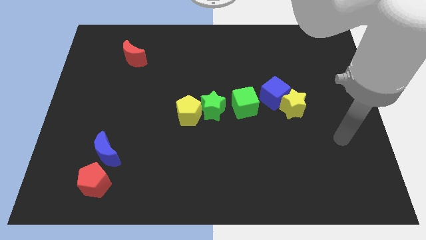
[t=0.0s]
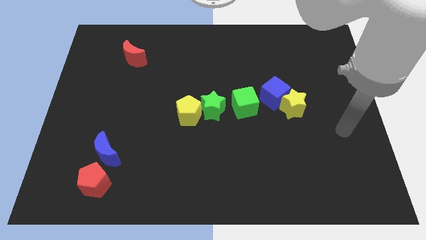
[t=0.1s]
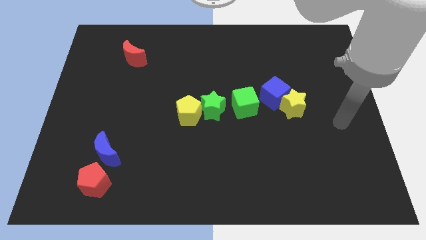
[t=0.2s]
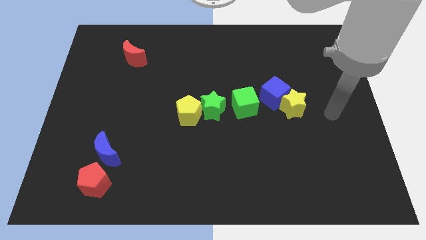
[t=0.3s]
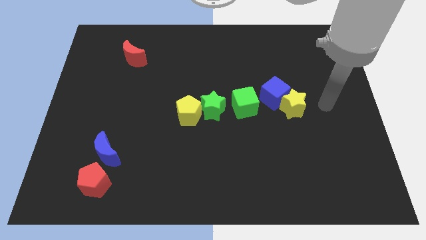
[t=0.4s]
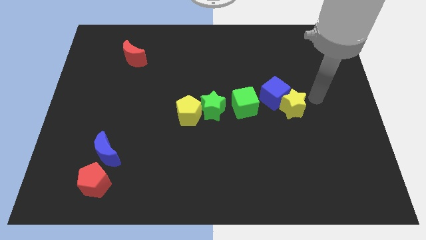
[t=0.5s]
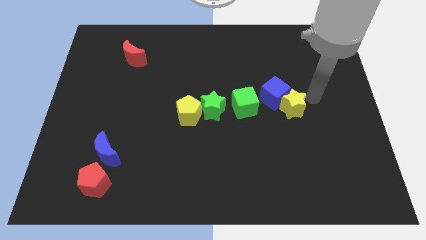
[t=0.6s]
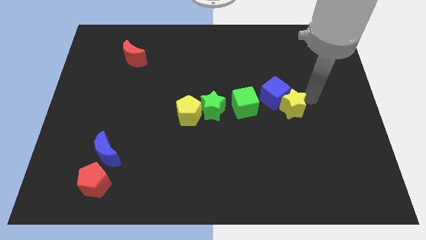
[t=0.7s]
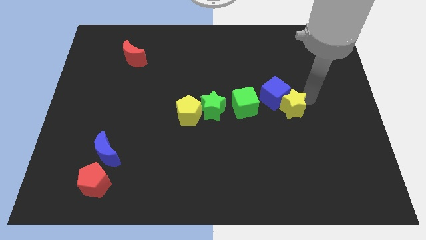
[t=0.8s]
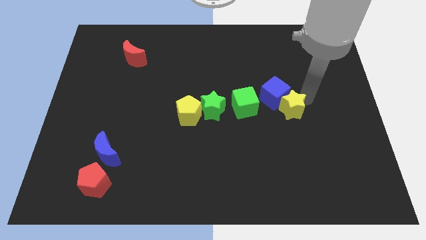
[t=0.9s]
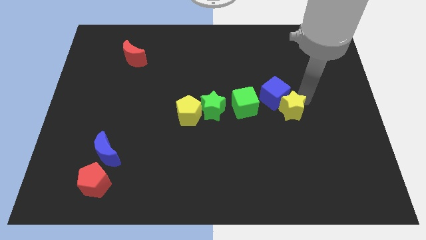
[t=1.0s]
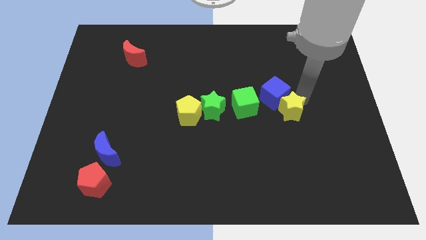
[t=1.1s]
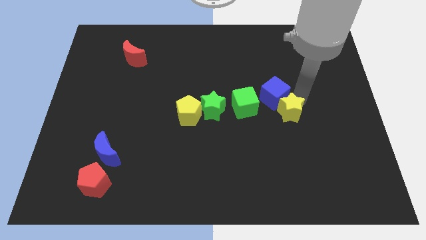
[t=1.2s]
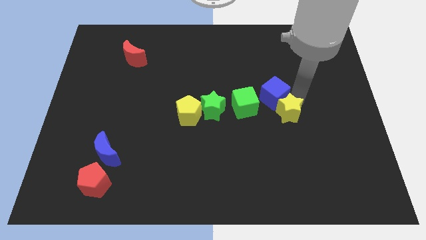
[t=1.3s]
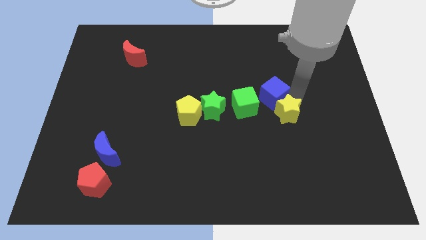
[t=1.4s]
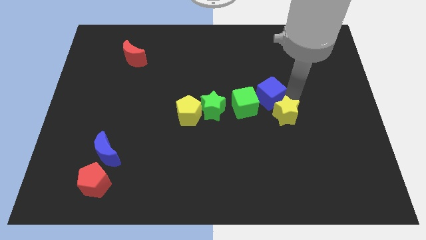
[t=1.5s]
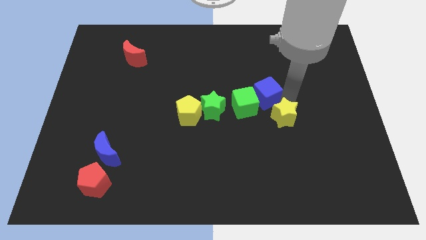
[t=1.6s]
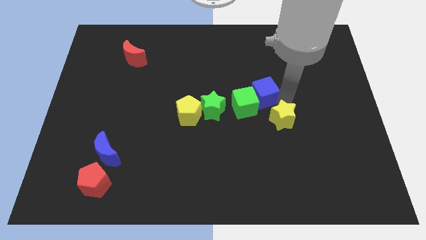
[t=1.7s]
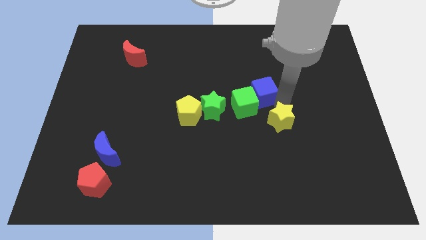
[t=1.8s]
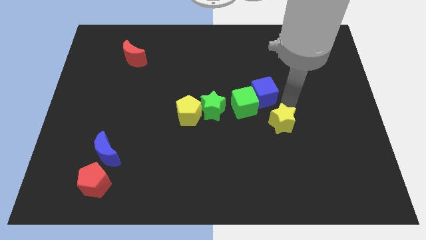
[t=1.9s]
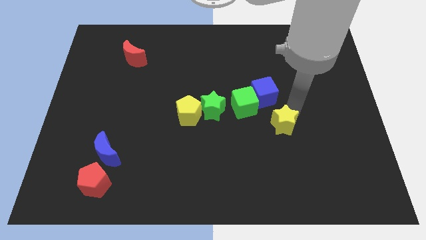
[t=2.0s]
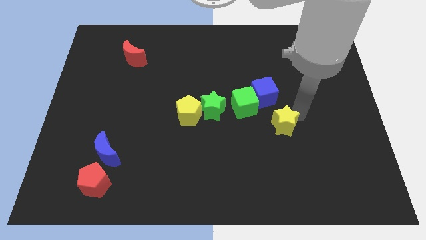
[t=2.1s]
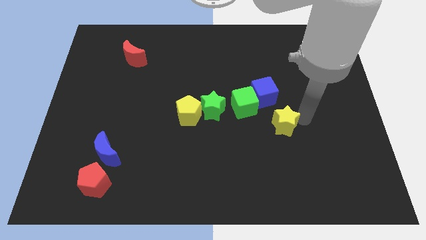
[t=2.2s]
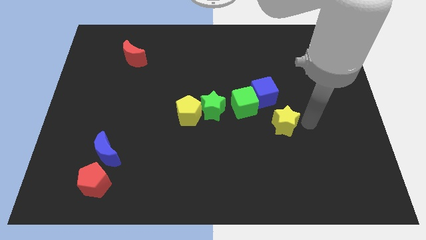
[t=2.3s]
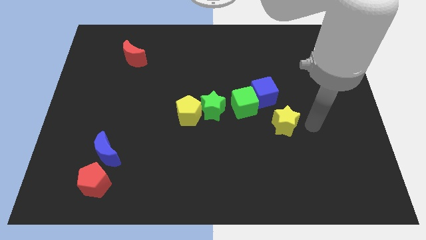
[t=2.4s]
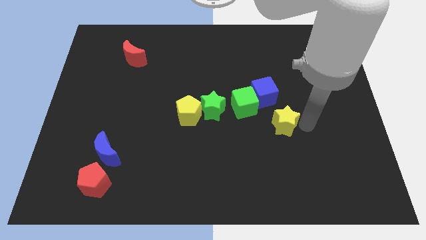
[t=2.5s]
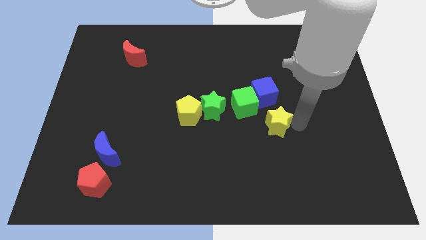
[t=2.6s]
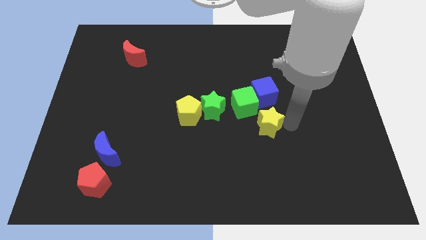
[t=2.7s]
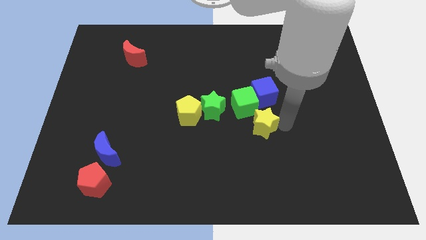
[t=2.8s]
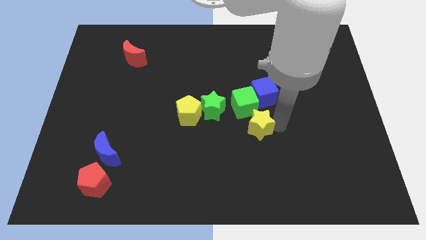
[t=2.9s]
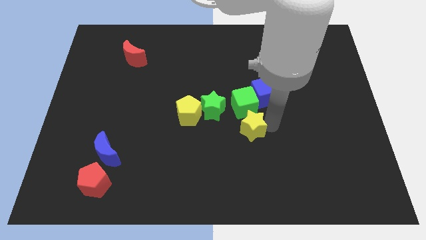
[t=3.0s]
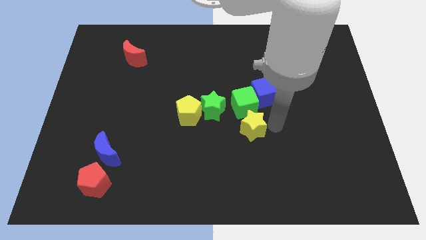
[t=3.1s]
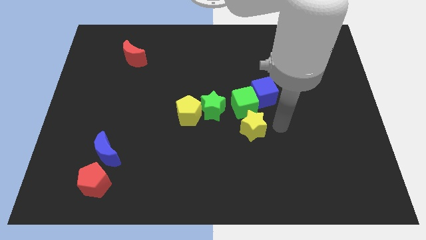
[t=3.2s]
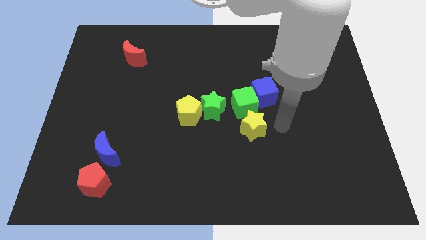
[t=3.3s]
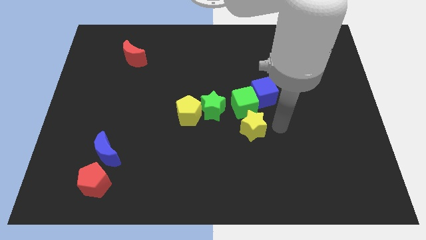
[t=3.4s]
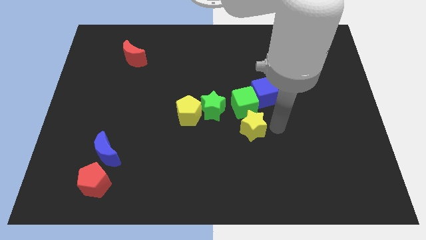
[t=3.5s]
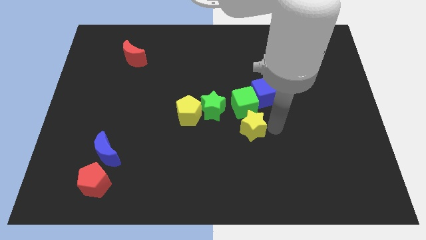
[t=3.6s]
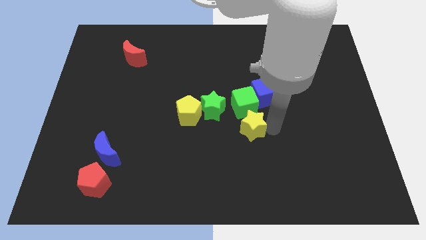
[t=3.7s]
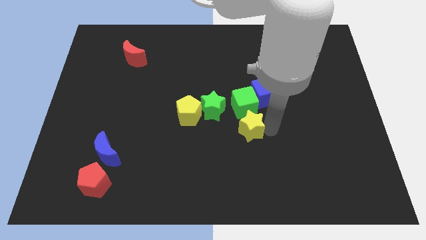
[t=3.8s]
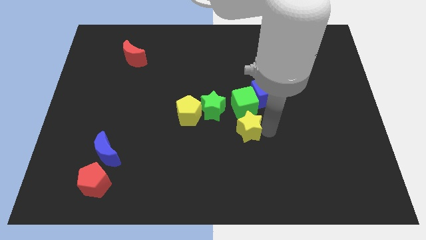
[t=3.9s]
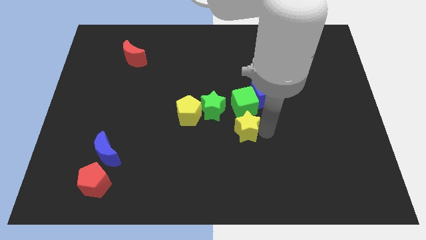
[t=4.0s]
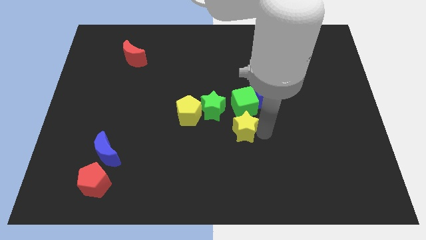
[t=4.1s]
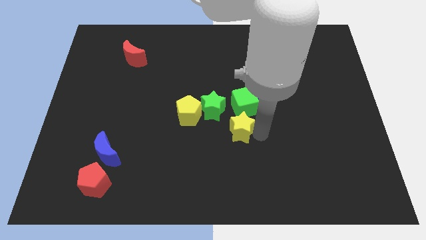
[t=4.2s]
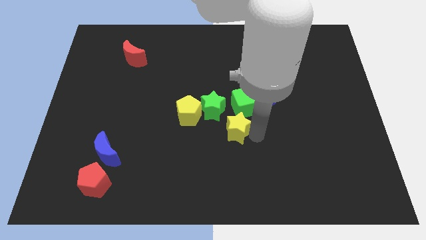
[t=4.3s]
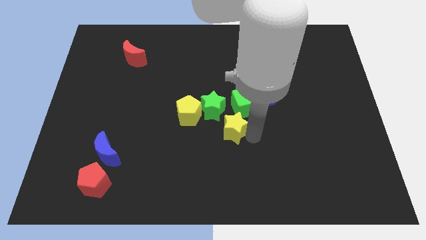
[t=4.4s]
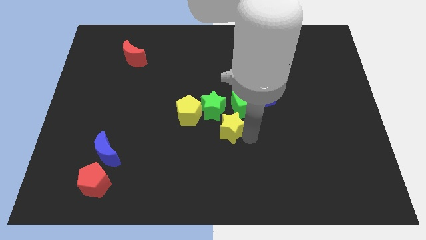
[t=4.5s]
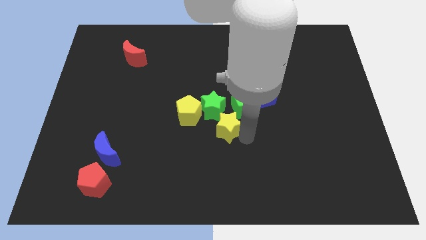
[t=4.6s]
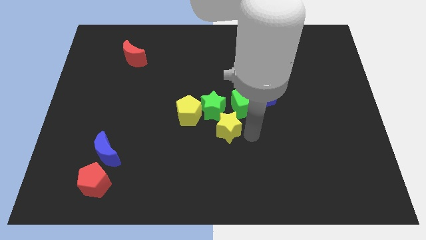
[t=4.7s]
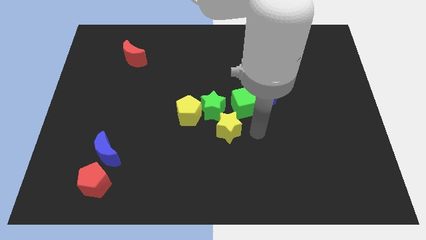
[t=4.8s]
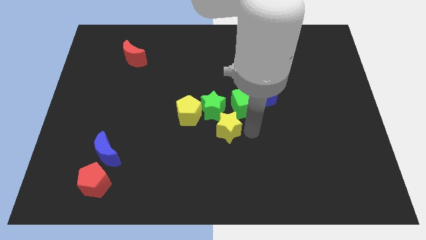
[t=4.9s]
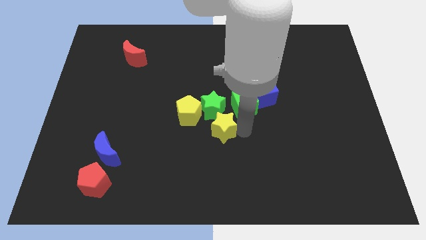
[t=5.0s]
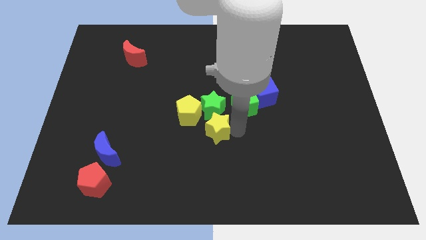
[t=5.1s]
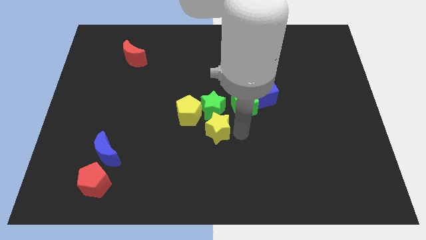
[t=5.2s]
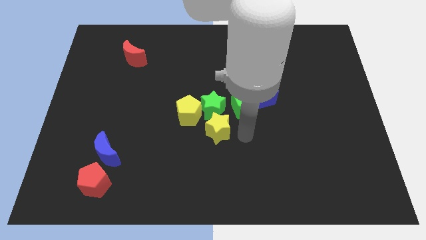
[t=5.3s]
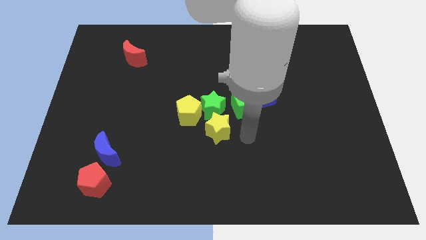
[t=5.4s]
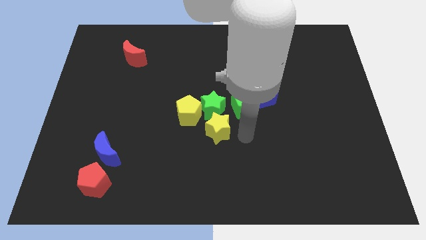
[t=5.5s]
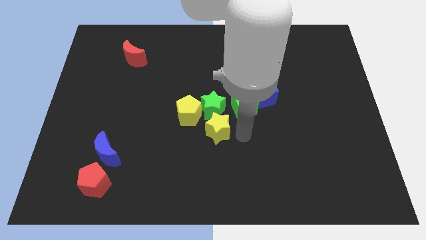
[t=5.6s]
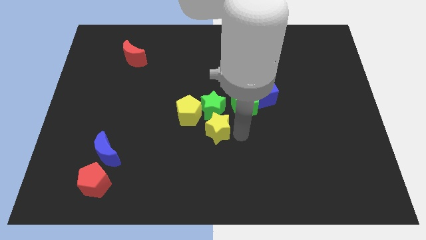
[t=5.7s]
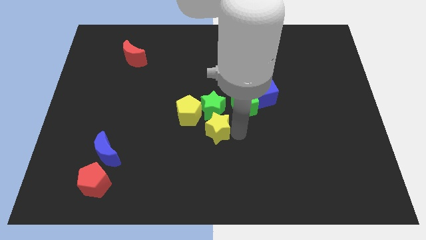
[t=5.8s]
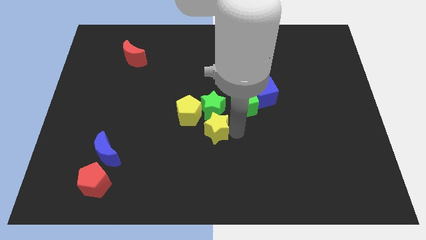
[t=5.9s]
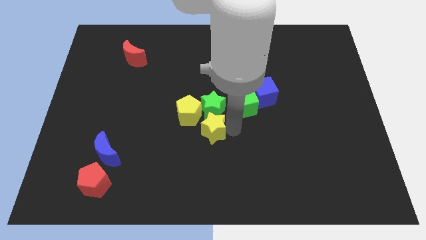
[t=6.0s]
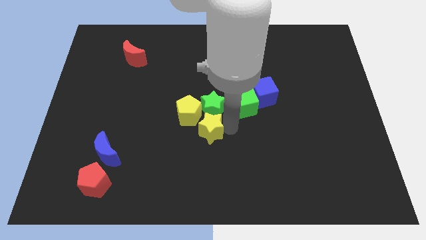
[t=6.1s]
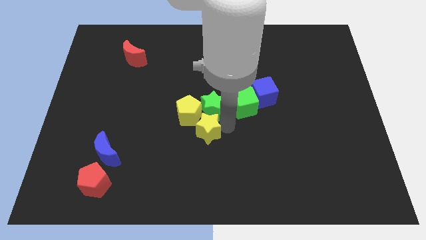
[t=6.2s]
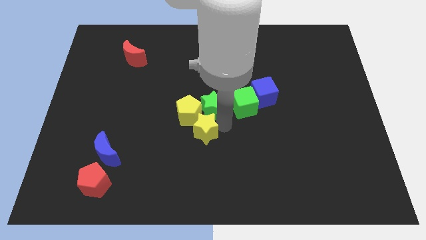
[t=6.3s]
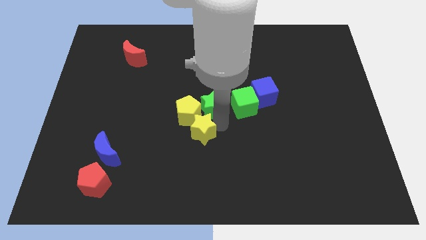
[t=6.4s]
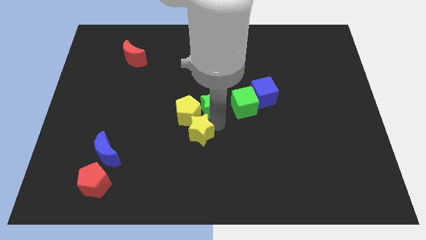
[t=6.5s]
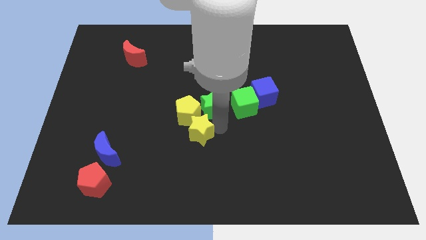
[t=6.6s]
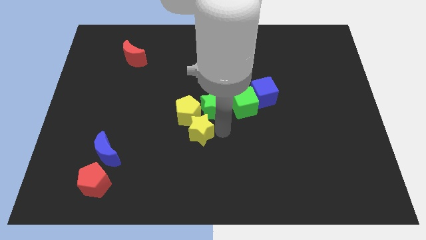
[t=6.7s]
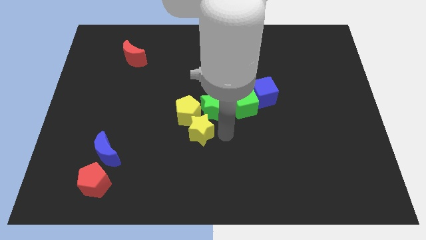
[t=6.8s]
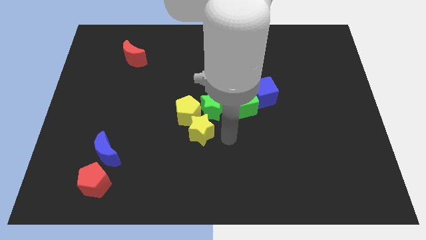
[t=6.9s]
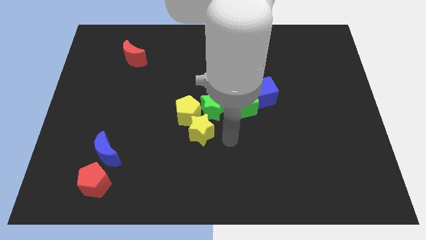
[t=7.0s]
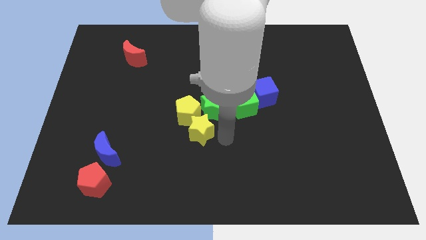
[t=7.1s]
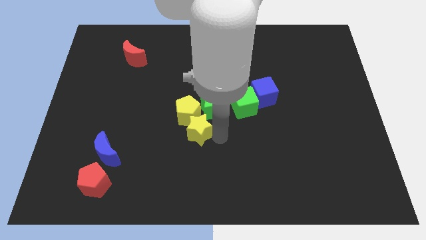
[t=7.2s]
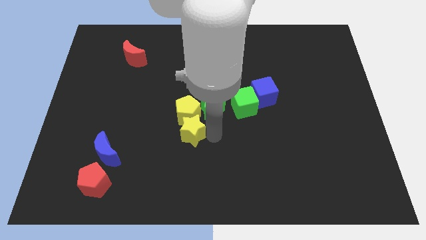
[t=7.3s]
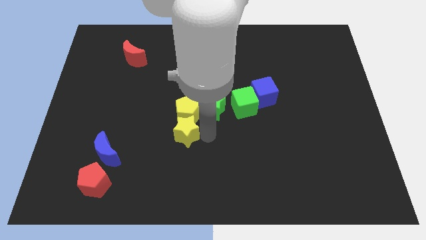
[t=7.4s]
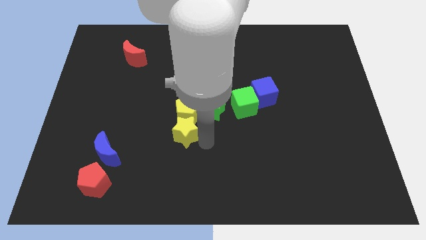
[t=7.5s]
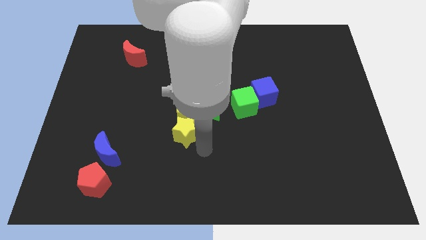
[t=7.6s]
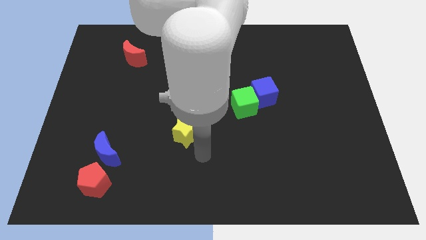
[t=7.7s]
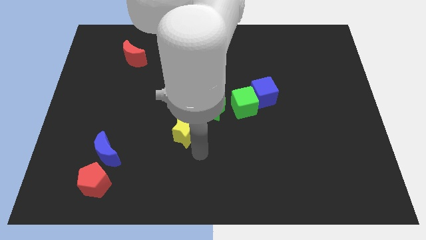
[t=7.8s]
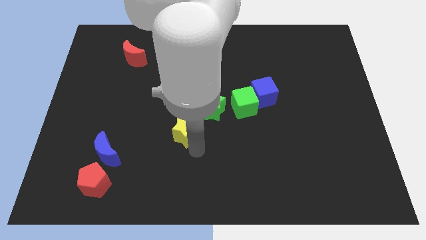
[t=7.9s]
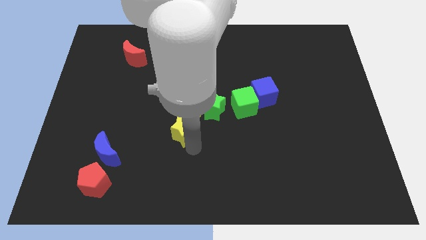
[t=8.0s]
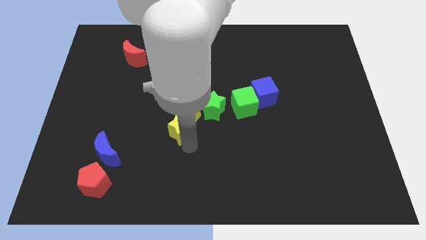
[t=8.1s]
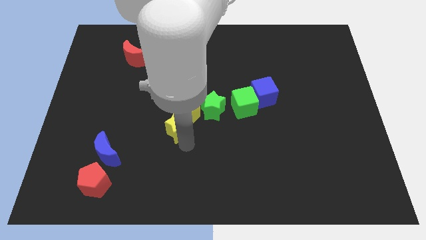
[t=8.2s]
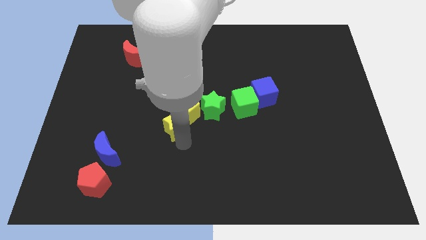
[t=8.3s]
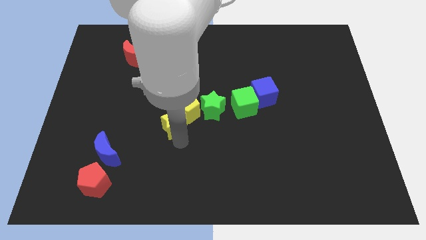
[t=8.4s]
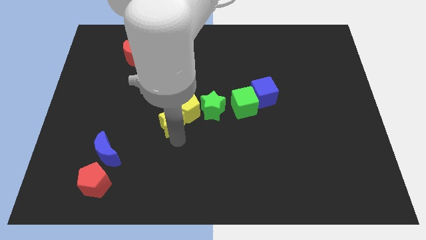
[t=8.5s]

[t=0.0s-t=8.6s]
put the yellow star left of the green star
